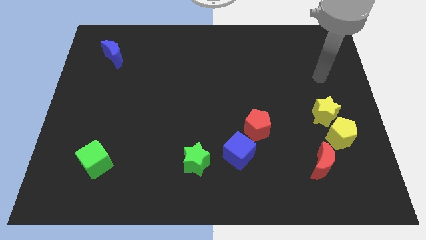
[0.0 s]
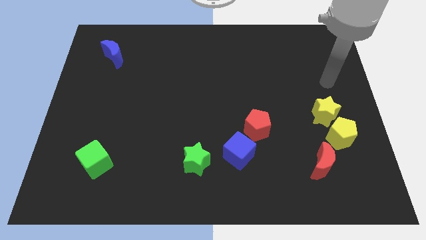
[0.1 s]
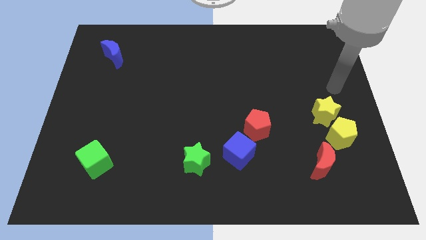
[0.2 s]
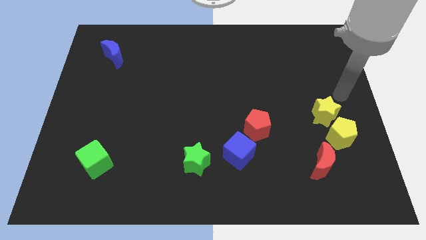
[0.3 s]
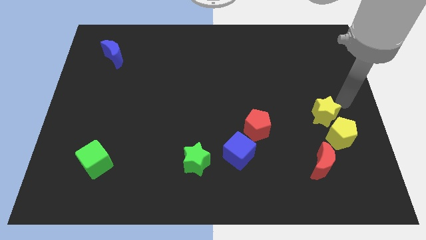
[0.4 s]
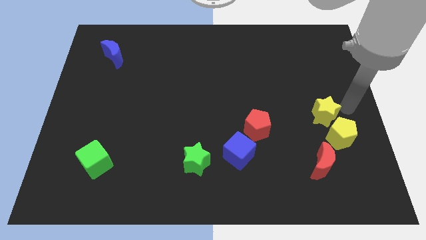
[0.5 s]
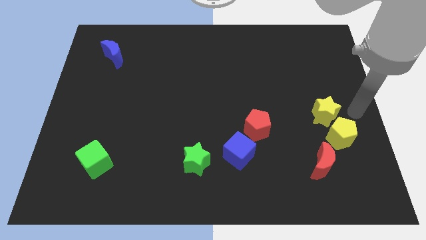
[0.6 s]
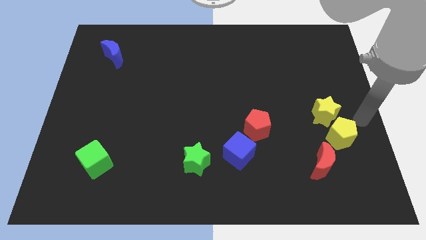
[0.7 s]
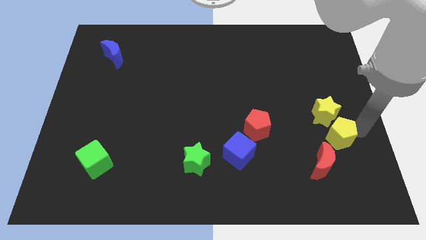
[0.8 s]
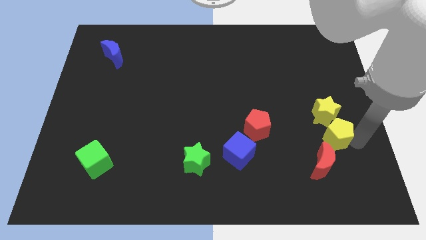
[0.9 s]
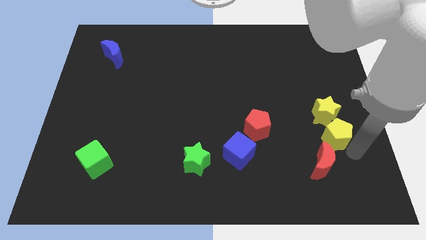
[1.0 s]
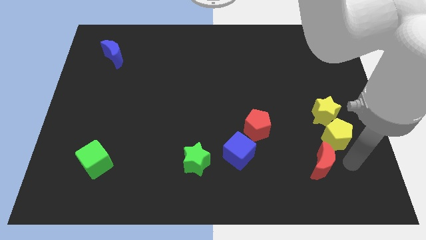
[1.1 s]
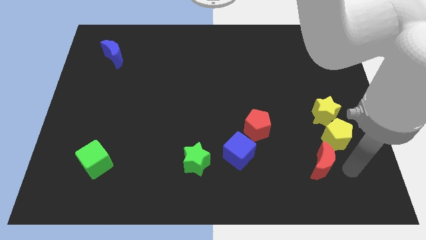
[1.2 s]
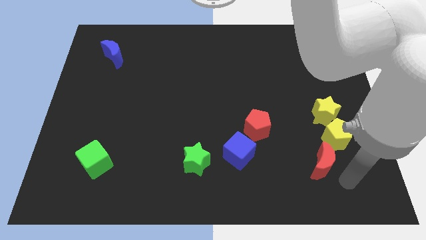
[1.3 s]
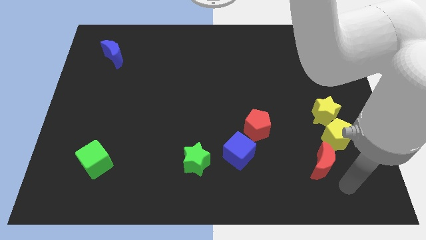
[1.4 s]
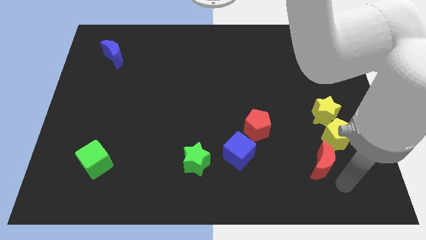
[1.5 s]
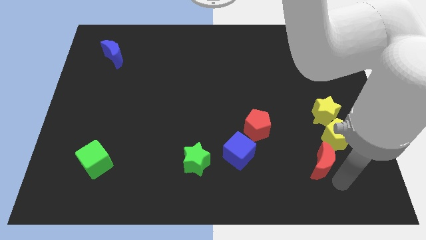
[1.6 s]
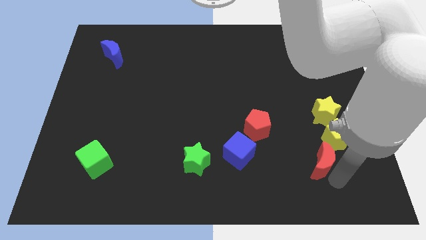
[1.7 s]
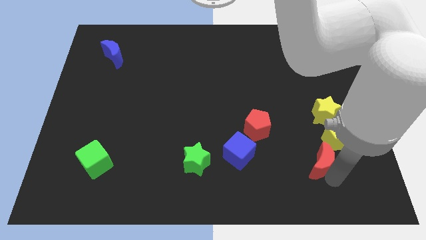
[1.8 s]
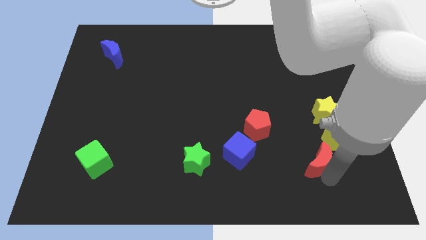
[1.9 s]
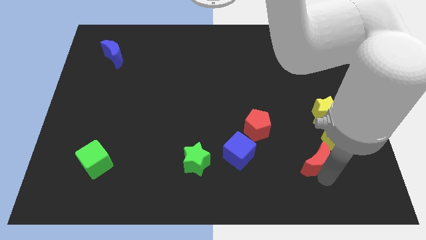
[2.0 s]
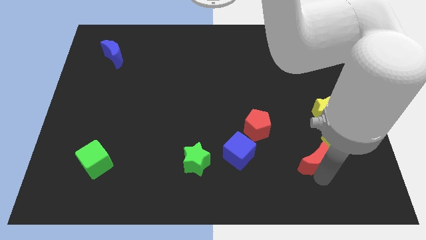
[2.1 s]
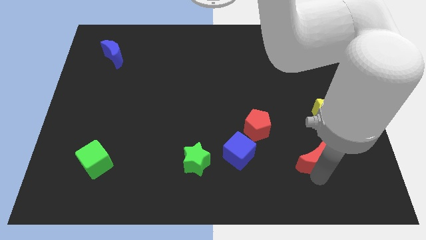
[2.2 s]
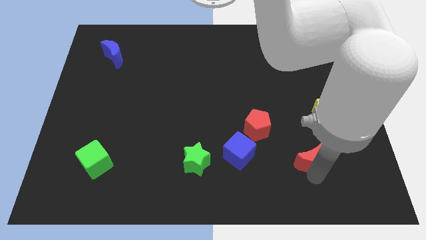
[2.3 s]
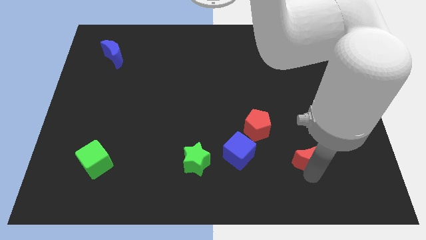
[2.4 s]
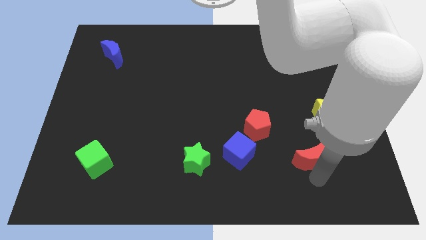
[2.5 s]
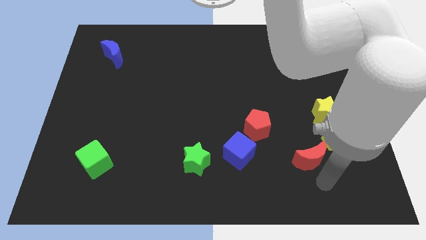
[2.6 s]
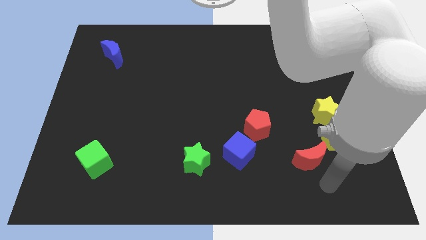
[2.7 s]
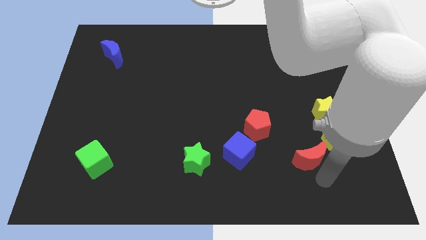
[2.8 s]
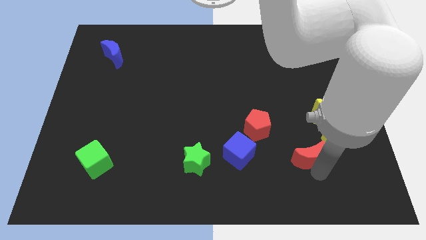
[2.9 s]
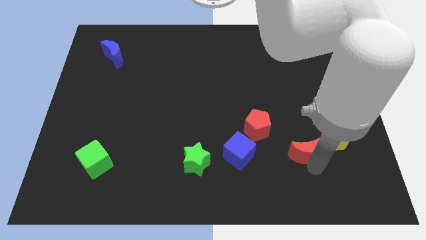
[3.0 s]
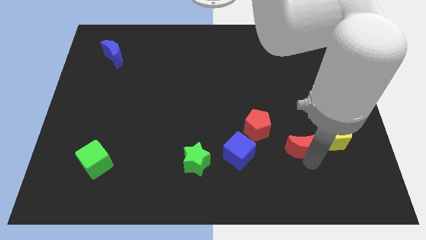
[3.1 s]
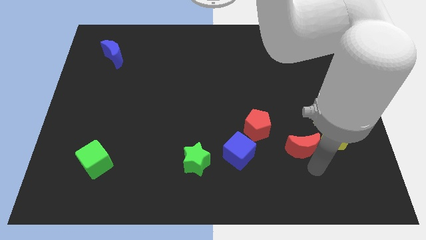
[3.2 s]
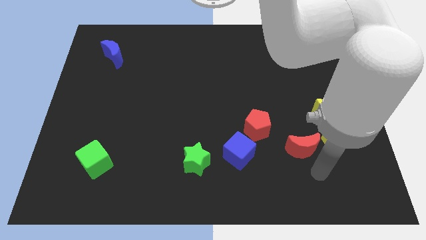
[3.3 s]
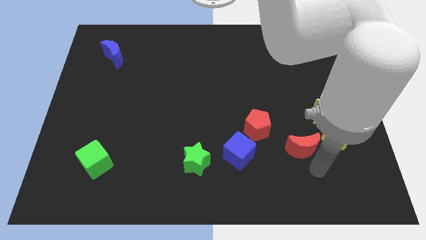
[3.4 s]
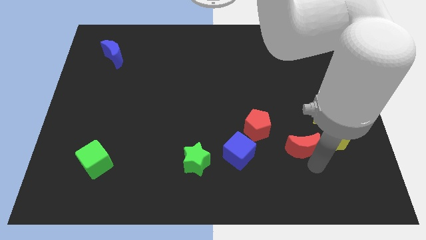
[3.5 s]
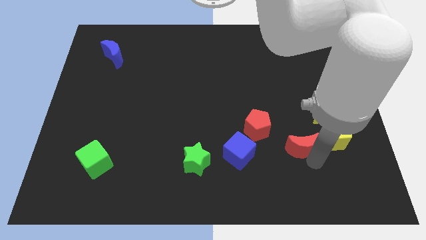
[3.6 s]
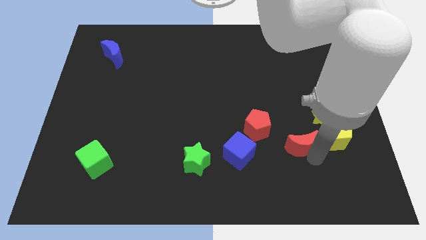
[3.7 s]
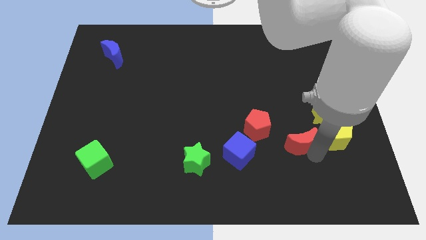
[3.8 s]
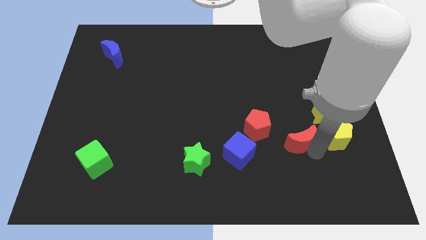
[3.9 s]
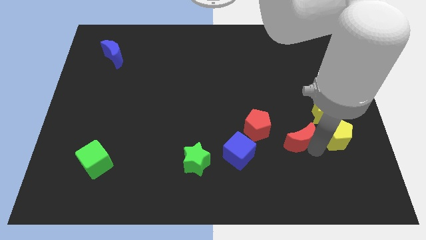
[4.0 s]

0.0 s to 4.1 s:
slide the red moon upwards and left diagonally a bit

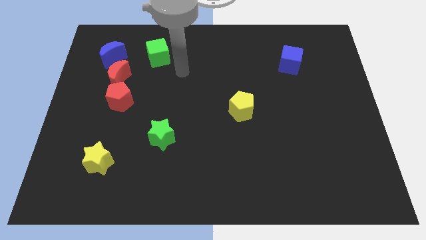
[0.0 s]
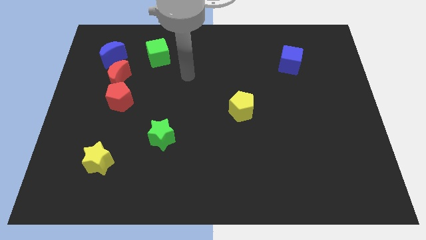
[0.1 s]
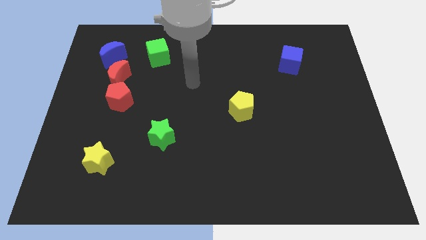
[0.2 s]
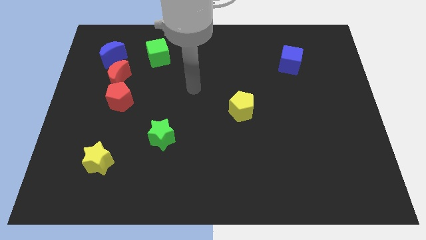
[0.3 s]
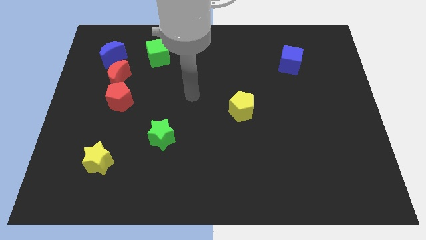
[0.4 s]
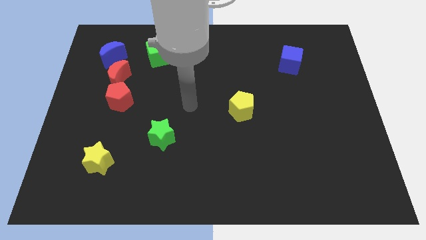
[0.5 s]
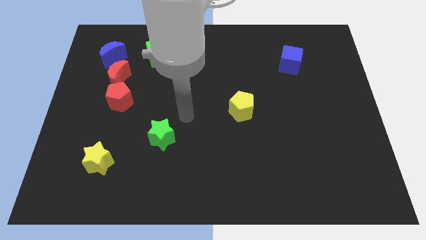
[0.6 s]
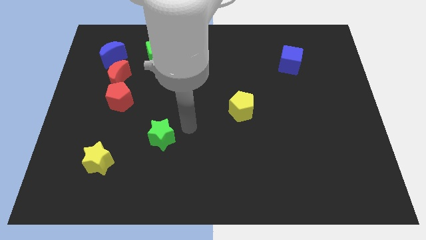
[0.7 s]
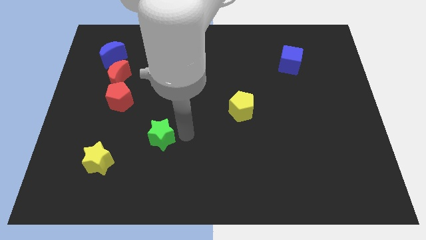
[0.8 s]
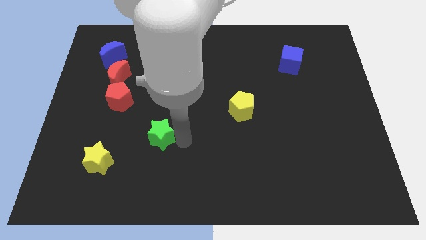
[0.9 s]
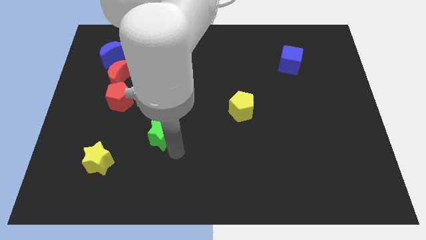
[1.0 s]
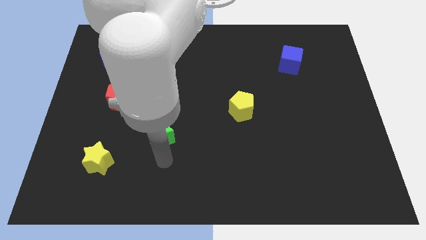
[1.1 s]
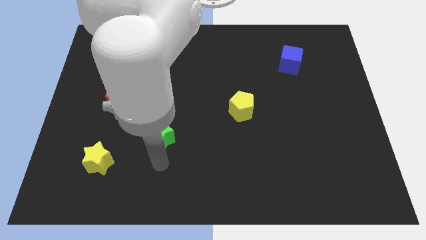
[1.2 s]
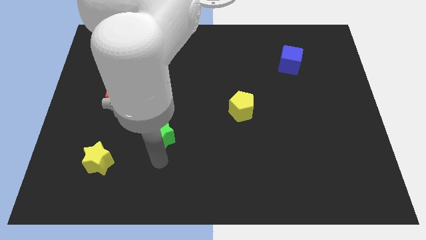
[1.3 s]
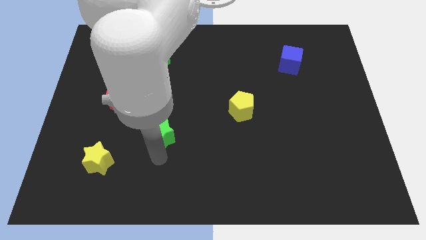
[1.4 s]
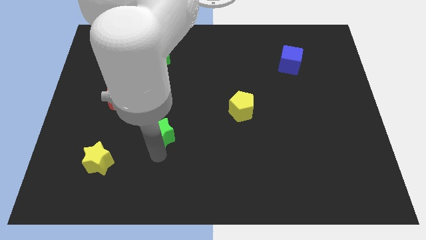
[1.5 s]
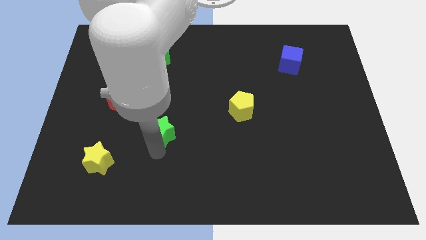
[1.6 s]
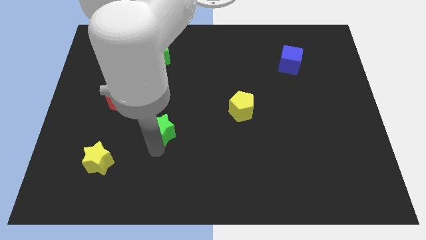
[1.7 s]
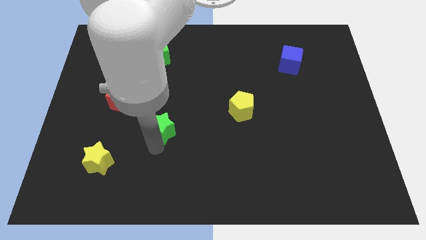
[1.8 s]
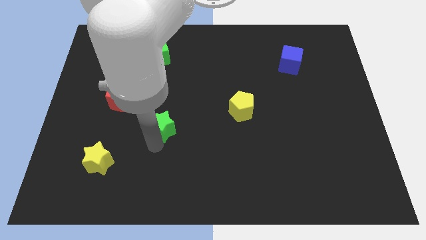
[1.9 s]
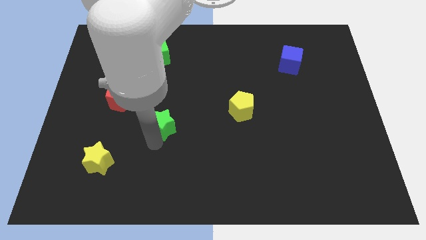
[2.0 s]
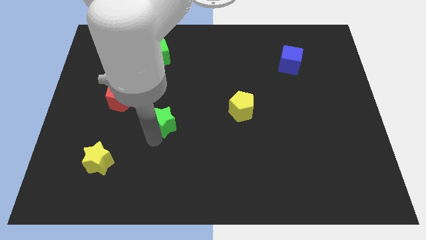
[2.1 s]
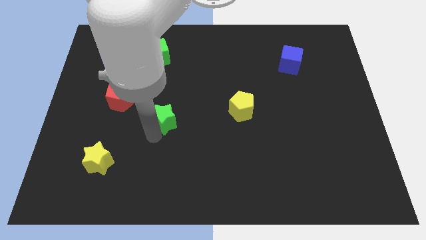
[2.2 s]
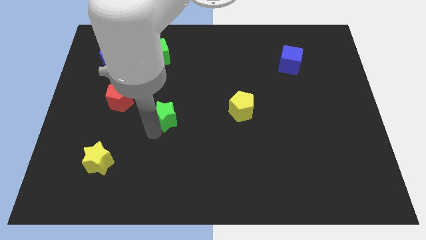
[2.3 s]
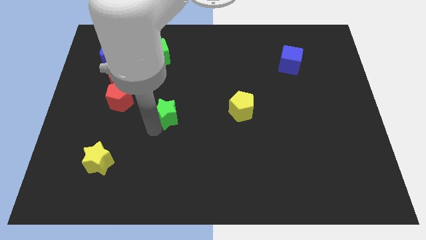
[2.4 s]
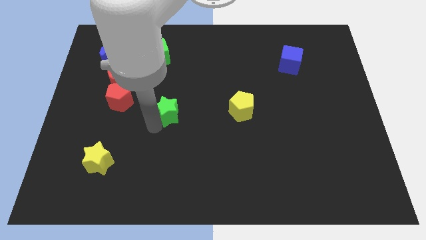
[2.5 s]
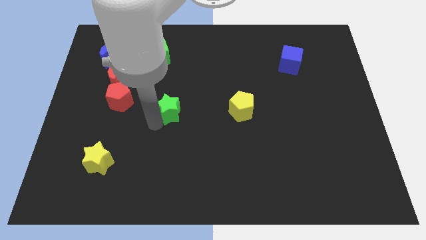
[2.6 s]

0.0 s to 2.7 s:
slightly move the green star upwards

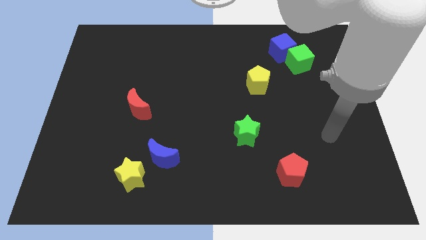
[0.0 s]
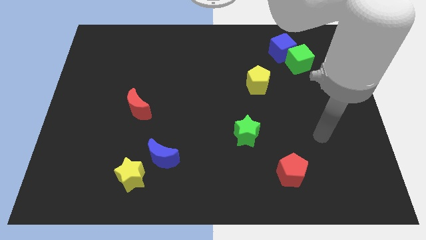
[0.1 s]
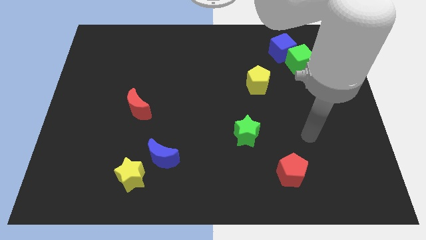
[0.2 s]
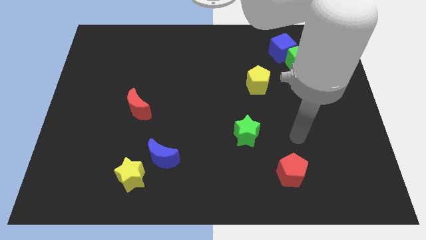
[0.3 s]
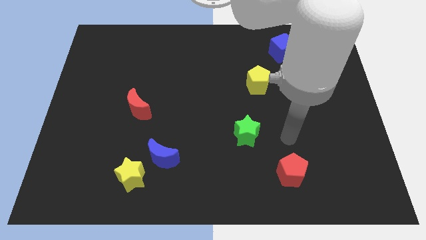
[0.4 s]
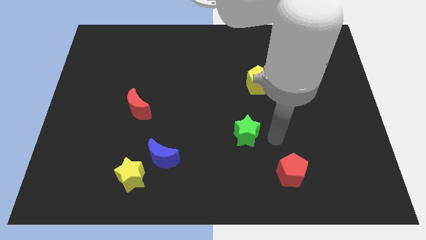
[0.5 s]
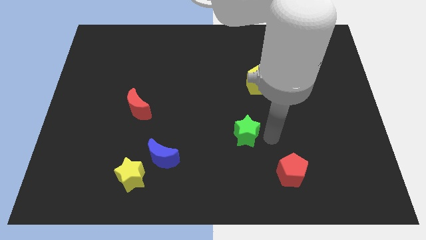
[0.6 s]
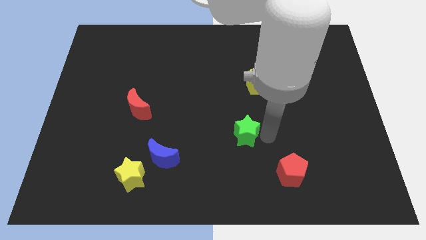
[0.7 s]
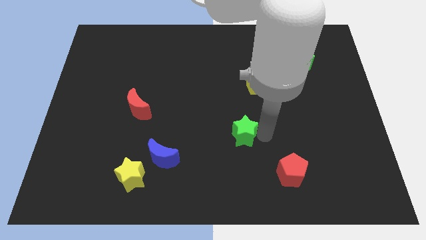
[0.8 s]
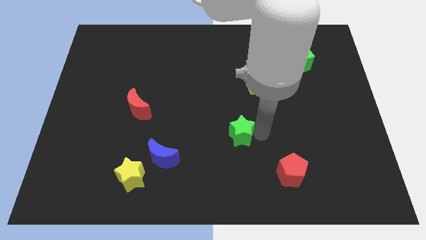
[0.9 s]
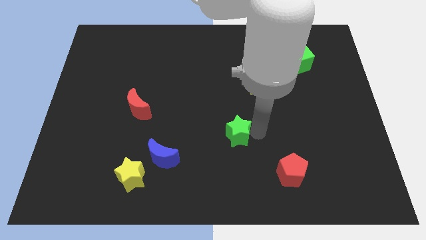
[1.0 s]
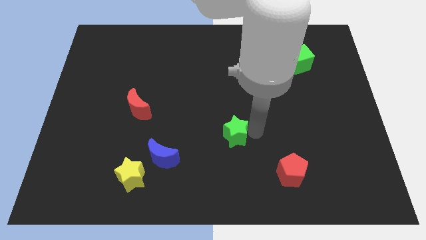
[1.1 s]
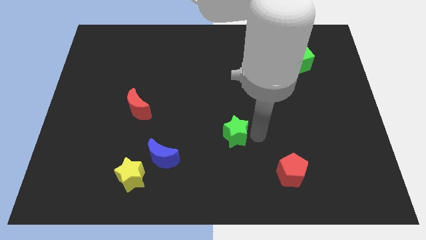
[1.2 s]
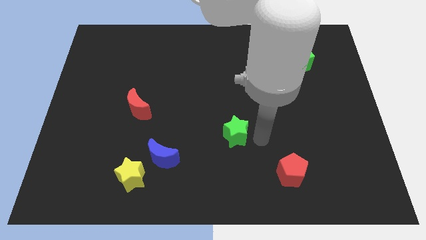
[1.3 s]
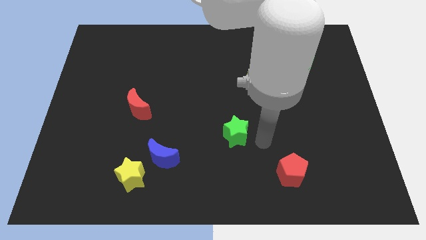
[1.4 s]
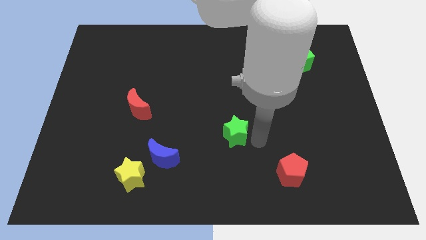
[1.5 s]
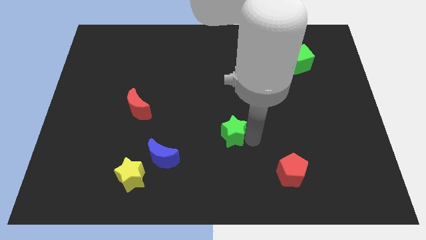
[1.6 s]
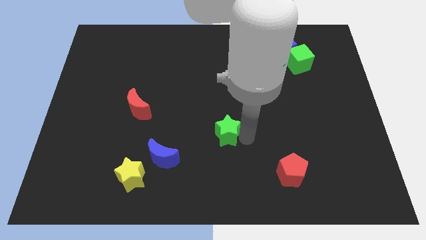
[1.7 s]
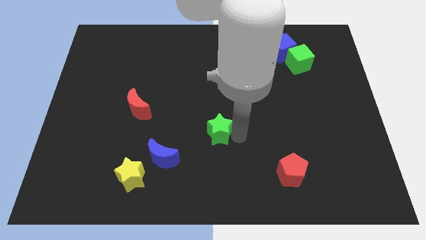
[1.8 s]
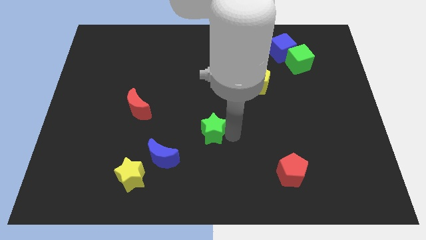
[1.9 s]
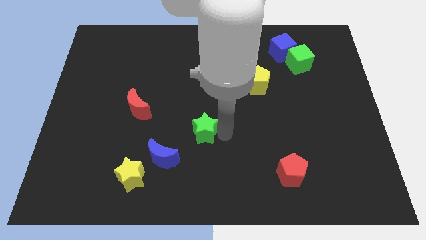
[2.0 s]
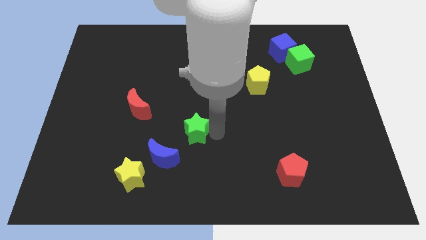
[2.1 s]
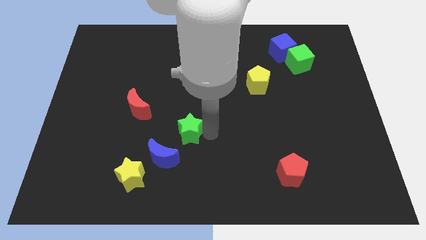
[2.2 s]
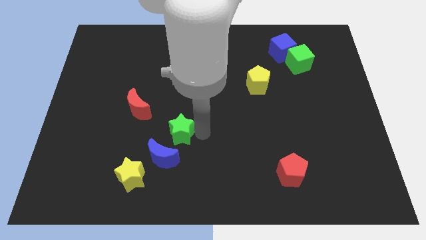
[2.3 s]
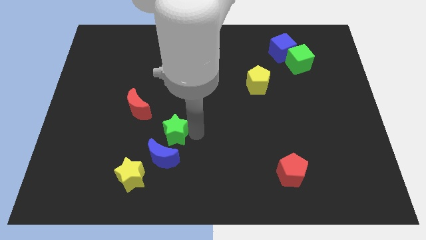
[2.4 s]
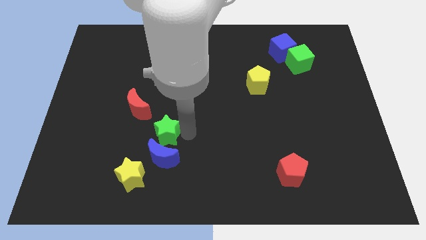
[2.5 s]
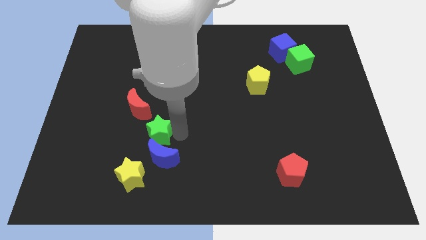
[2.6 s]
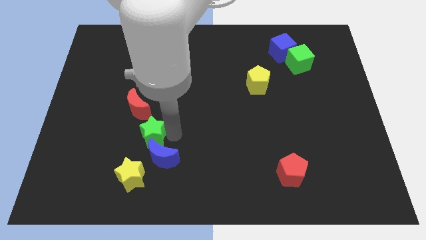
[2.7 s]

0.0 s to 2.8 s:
push the green star left
